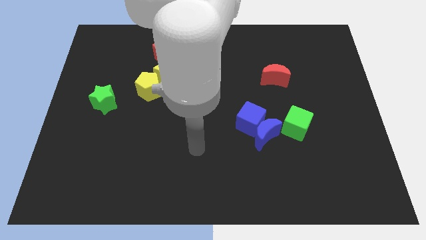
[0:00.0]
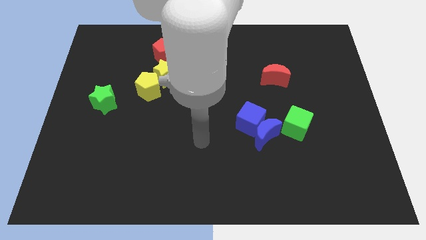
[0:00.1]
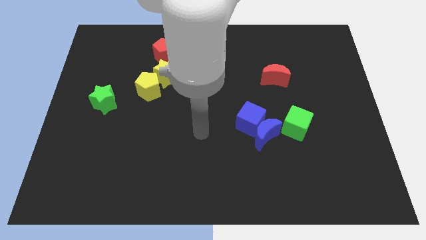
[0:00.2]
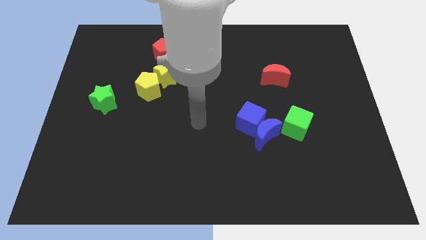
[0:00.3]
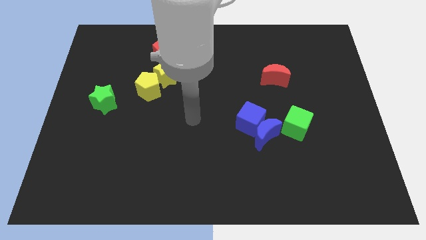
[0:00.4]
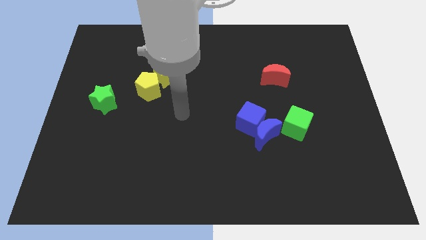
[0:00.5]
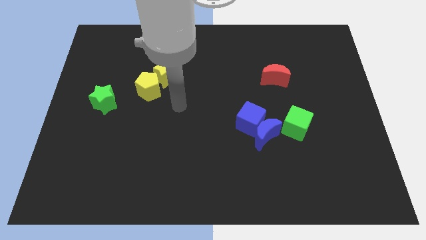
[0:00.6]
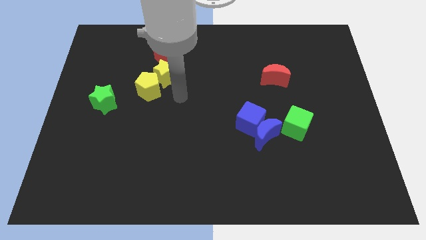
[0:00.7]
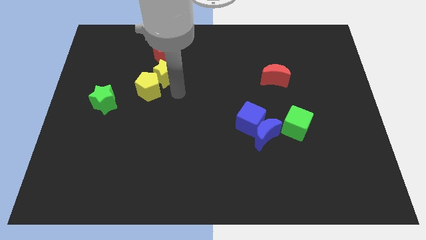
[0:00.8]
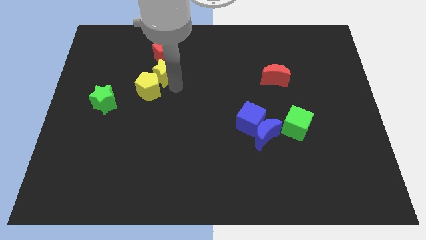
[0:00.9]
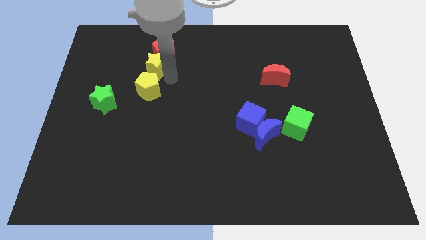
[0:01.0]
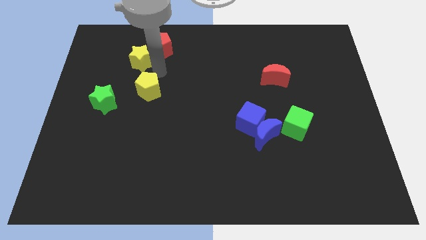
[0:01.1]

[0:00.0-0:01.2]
separate the yellow pentagon from the yellow star

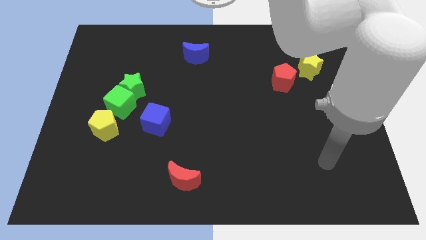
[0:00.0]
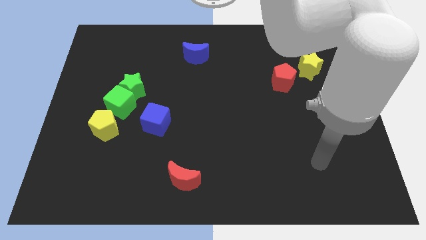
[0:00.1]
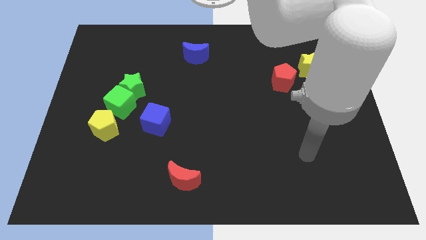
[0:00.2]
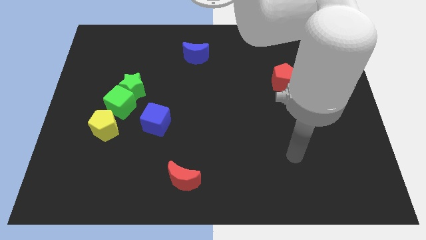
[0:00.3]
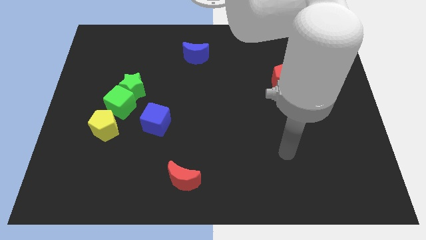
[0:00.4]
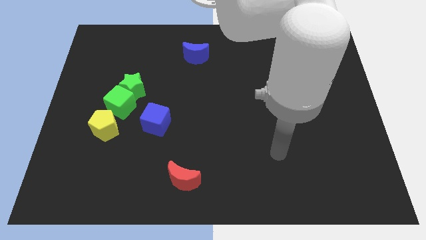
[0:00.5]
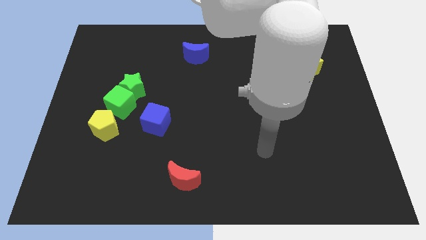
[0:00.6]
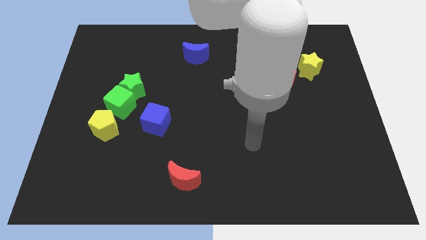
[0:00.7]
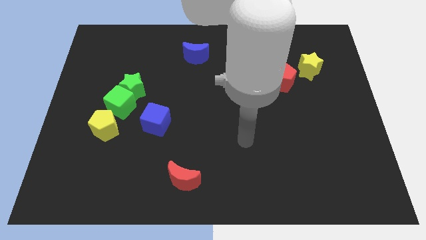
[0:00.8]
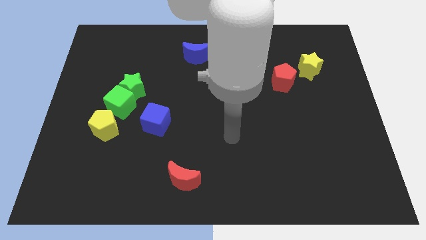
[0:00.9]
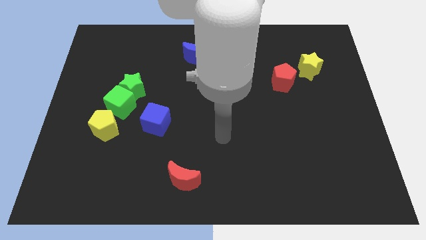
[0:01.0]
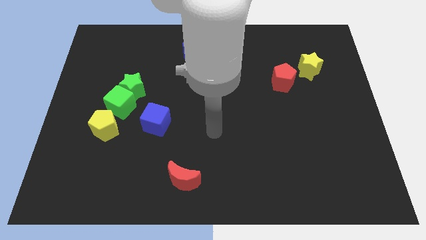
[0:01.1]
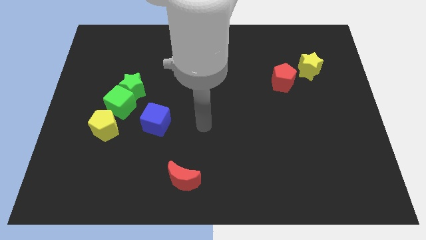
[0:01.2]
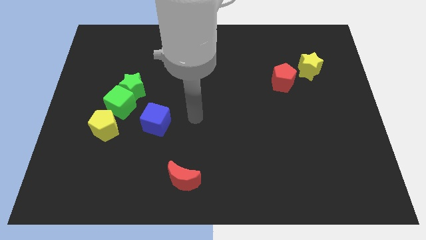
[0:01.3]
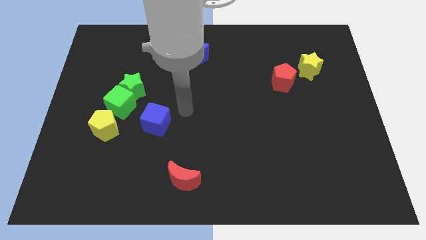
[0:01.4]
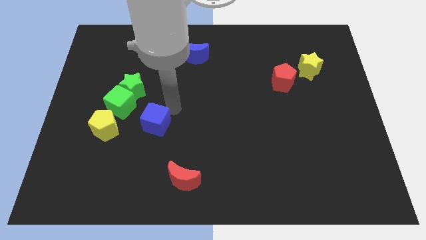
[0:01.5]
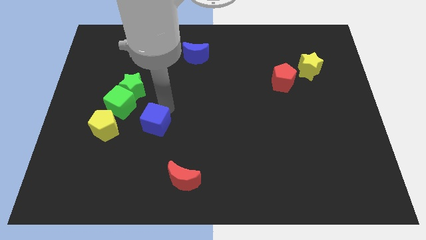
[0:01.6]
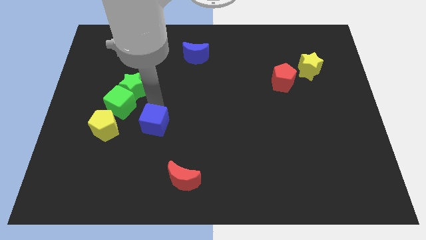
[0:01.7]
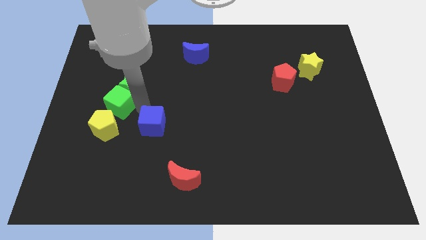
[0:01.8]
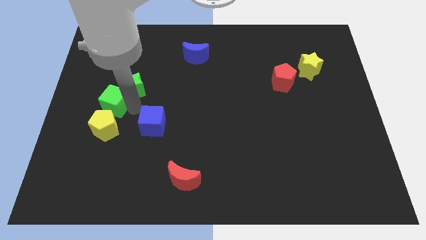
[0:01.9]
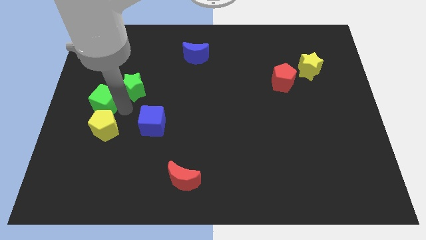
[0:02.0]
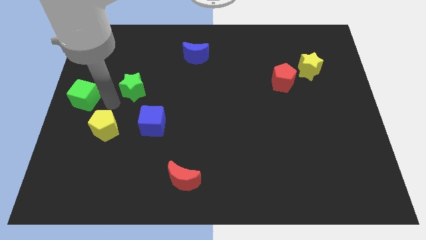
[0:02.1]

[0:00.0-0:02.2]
pull the green star apart from the green cube

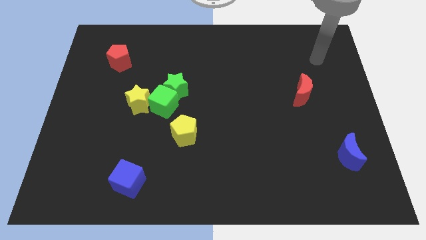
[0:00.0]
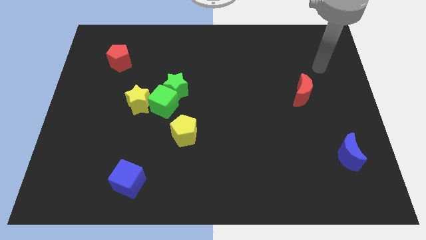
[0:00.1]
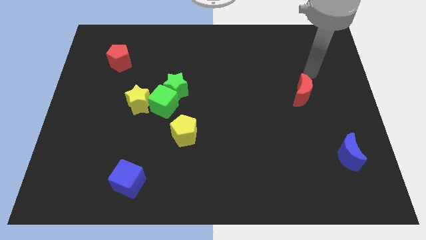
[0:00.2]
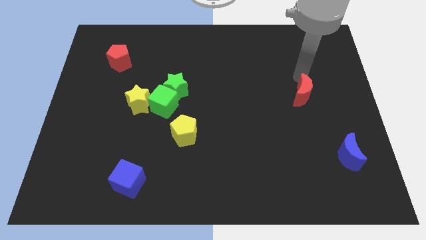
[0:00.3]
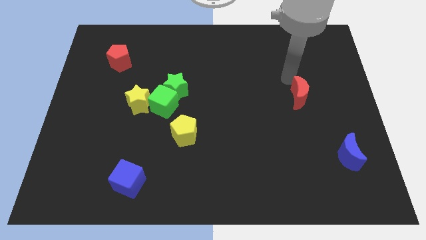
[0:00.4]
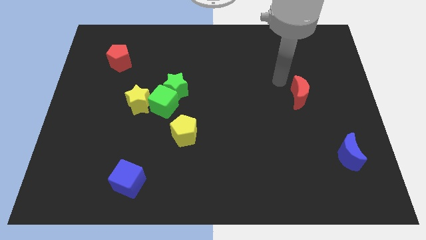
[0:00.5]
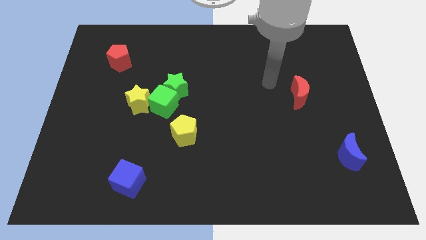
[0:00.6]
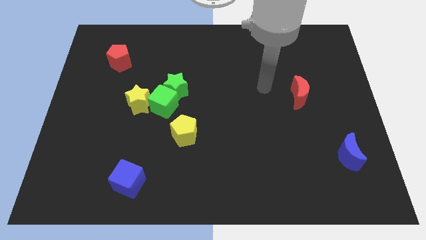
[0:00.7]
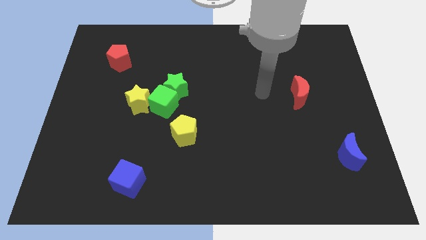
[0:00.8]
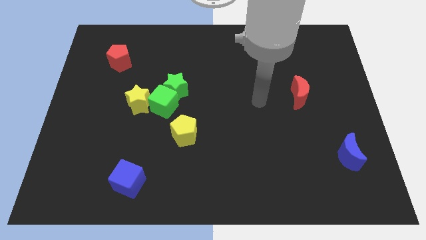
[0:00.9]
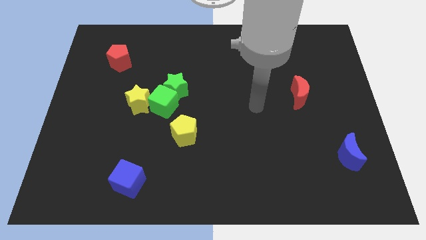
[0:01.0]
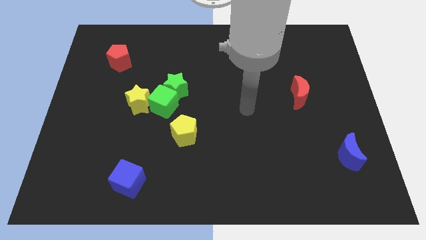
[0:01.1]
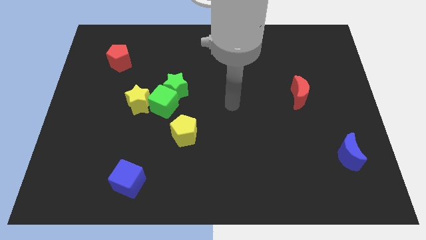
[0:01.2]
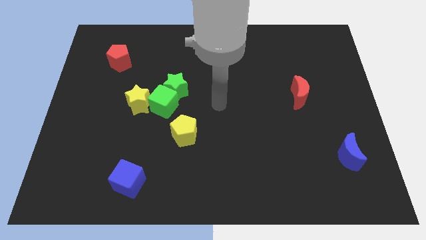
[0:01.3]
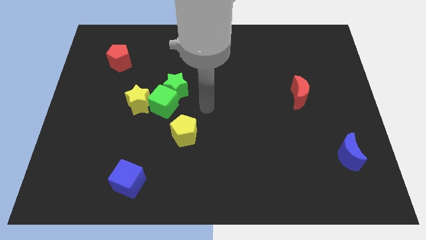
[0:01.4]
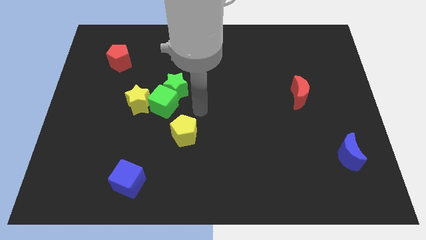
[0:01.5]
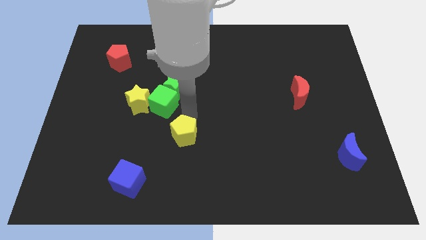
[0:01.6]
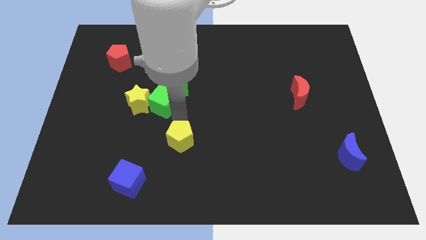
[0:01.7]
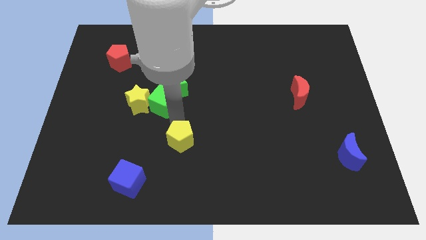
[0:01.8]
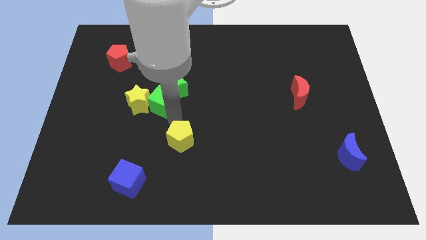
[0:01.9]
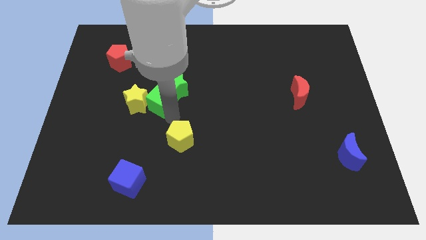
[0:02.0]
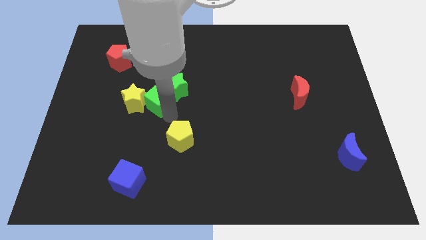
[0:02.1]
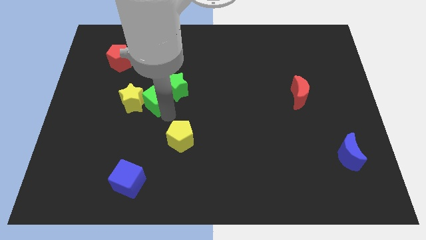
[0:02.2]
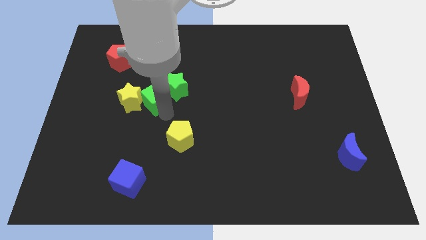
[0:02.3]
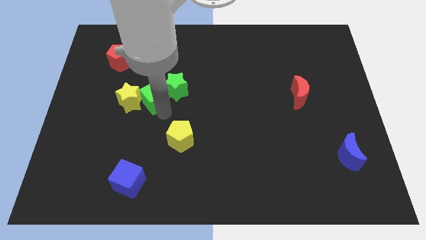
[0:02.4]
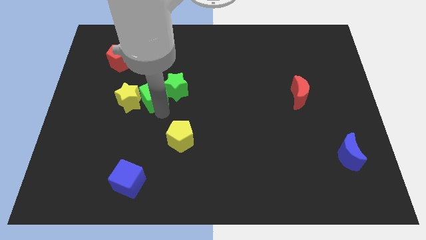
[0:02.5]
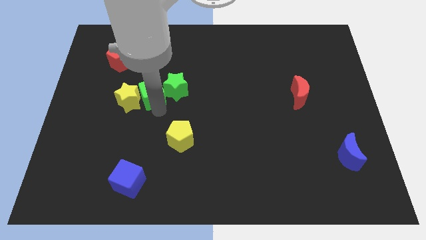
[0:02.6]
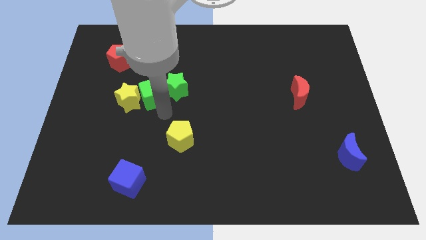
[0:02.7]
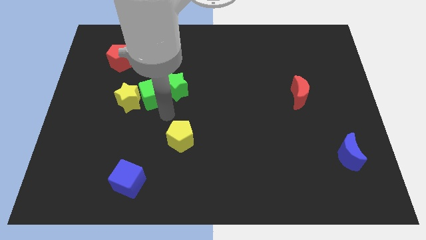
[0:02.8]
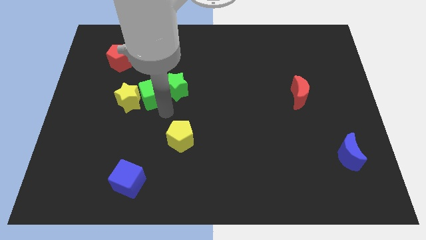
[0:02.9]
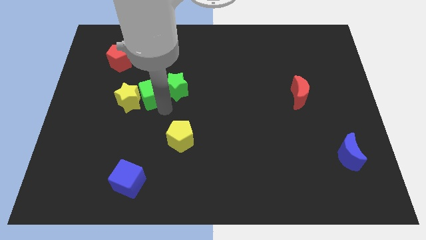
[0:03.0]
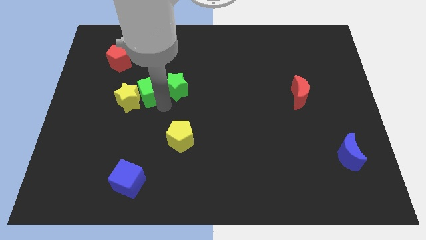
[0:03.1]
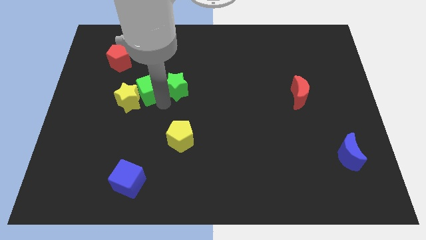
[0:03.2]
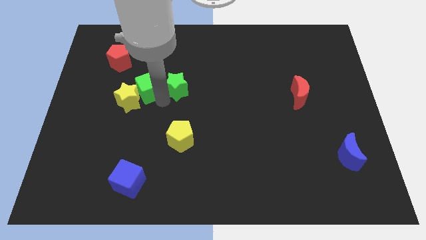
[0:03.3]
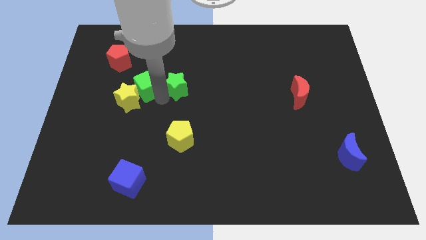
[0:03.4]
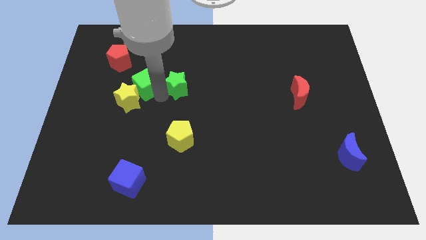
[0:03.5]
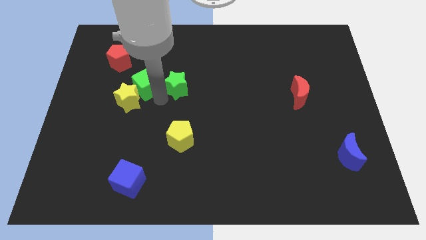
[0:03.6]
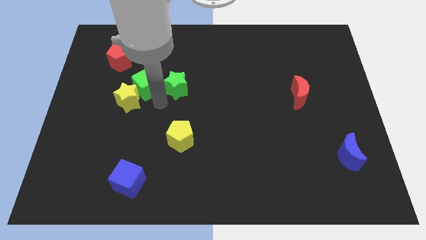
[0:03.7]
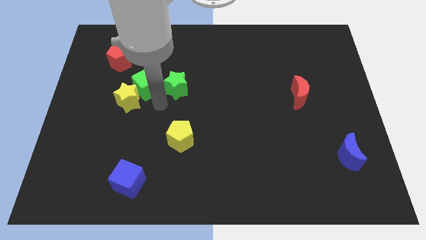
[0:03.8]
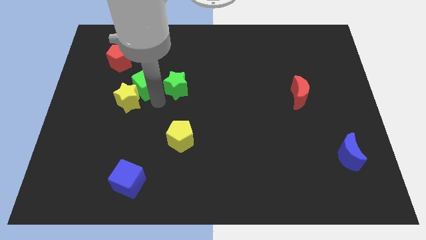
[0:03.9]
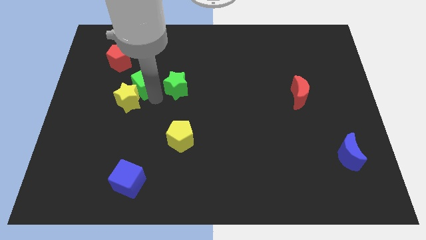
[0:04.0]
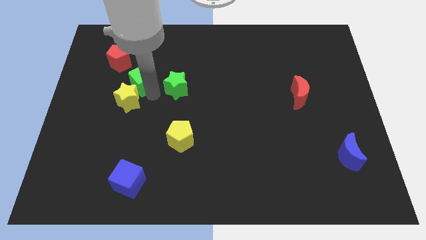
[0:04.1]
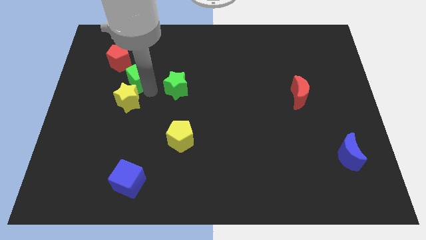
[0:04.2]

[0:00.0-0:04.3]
move the green cube away from the green star, yellow star, and yellow pentagon

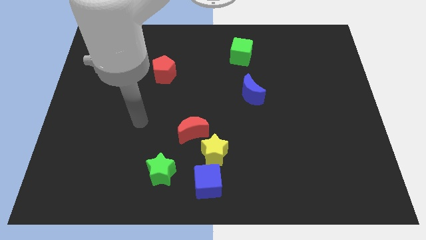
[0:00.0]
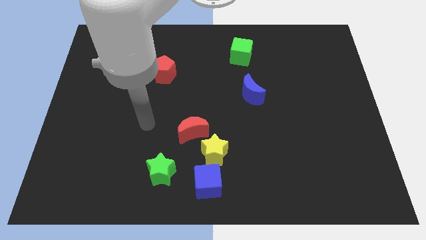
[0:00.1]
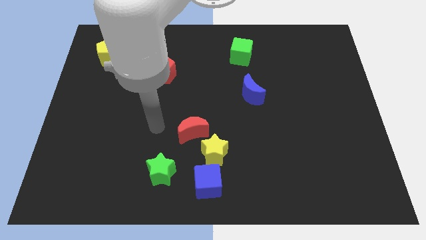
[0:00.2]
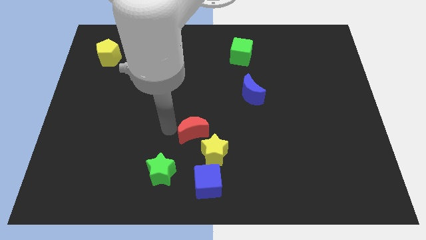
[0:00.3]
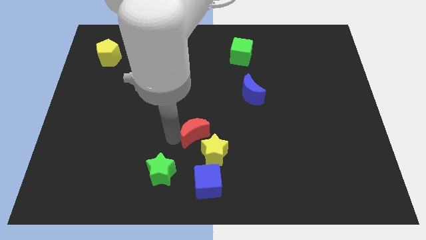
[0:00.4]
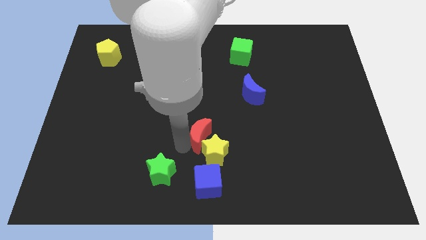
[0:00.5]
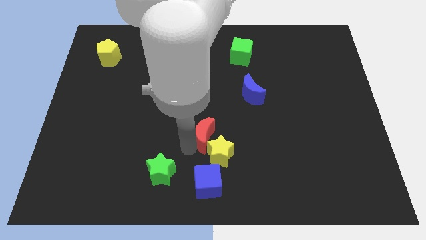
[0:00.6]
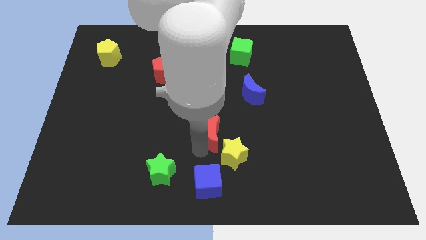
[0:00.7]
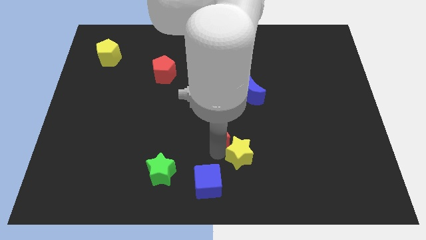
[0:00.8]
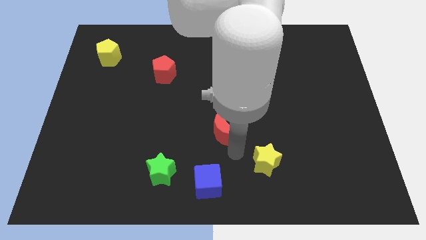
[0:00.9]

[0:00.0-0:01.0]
pull the red moon apart from the yellow star

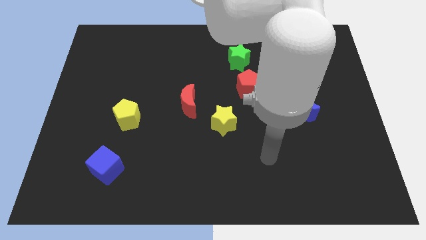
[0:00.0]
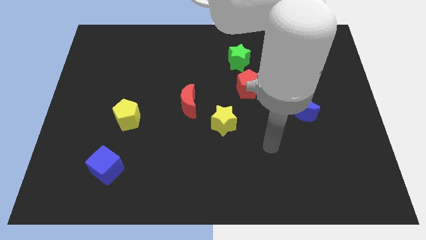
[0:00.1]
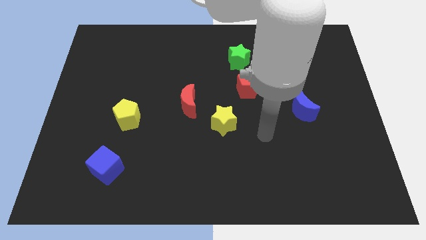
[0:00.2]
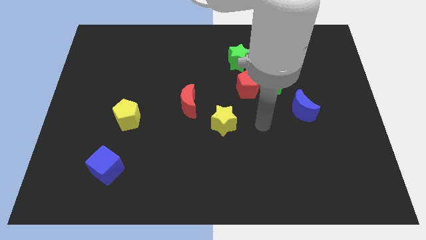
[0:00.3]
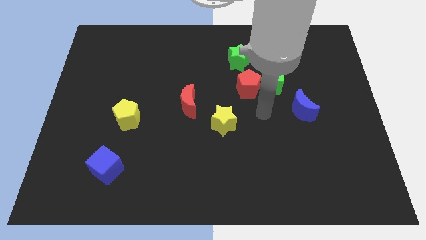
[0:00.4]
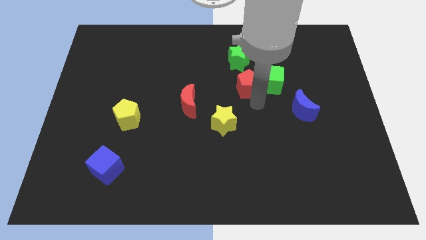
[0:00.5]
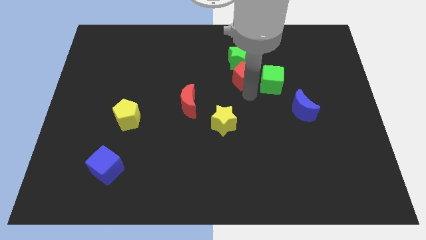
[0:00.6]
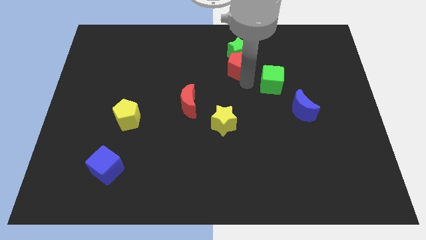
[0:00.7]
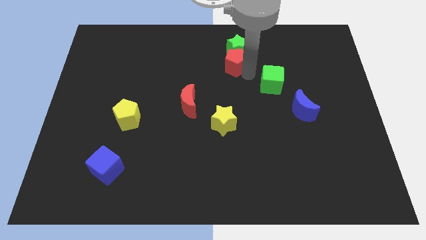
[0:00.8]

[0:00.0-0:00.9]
move the green cube away from the red pentagon
